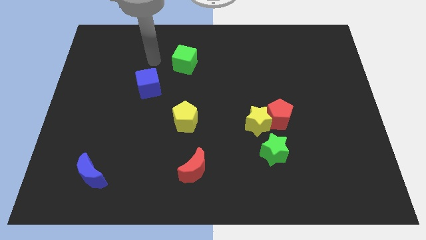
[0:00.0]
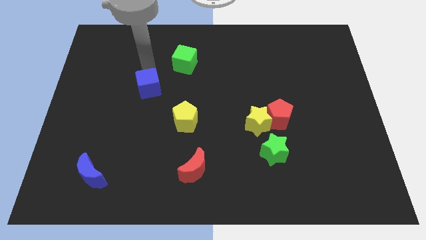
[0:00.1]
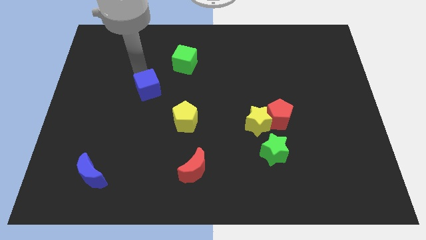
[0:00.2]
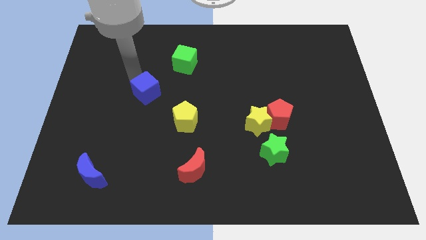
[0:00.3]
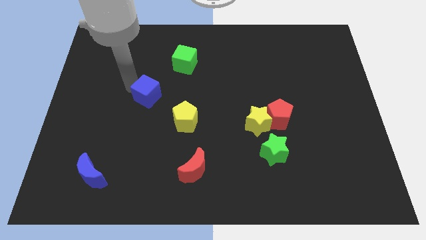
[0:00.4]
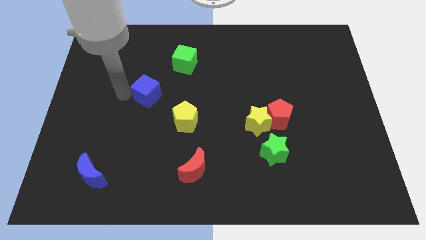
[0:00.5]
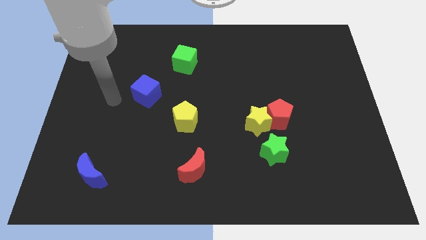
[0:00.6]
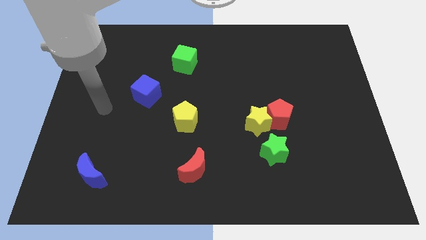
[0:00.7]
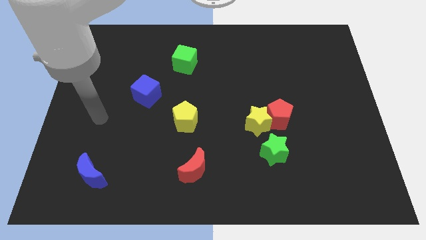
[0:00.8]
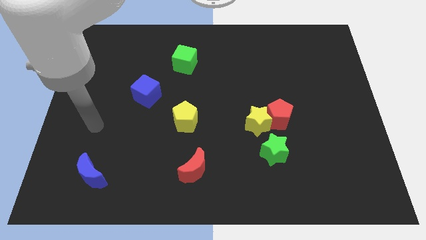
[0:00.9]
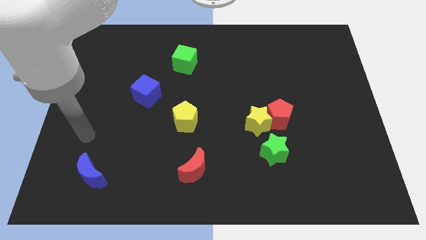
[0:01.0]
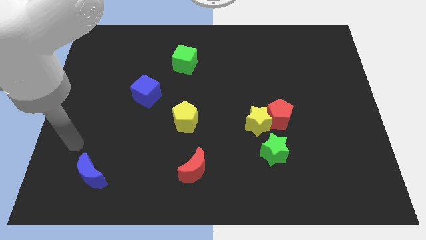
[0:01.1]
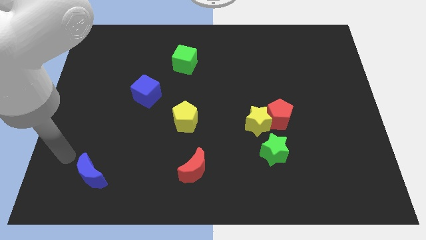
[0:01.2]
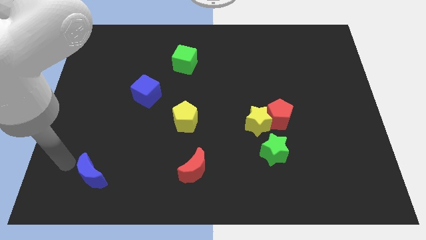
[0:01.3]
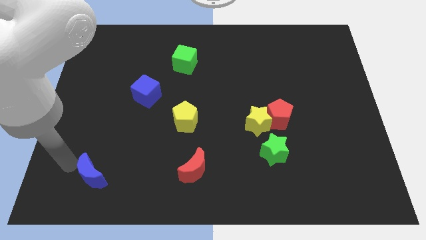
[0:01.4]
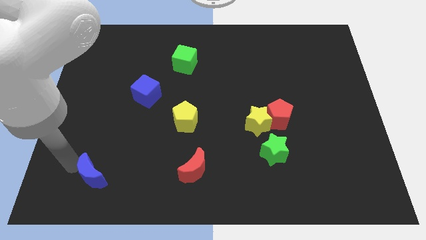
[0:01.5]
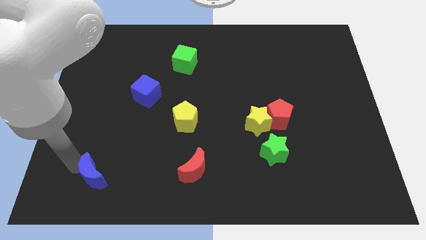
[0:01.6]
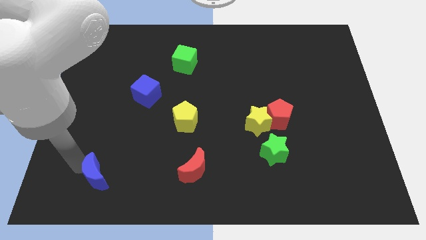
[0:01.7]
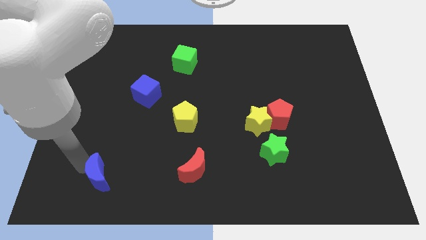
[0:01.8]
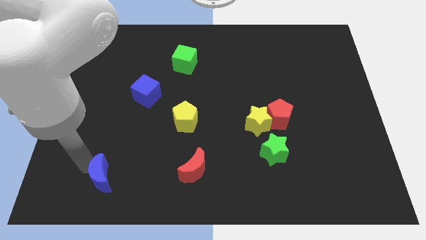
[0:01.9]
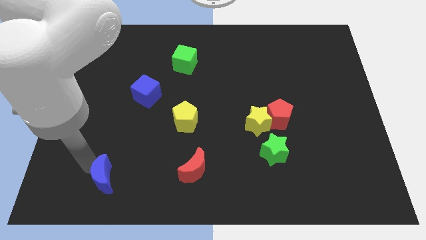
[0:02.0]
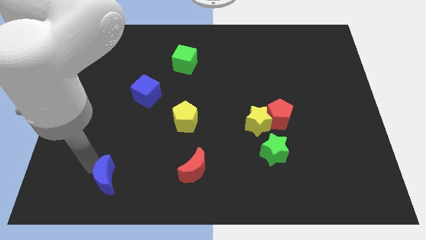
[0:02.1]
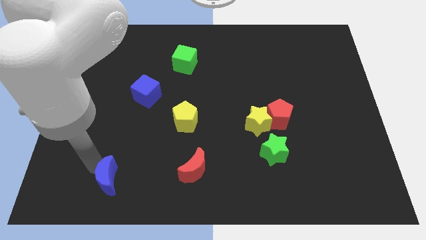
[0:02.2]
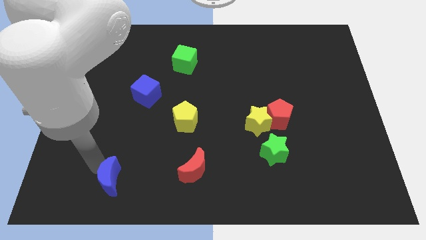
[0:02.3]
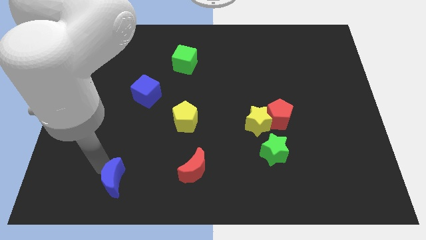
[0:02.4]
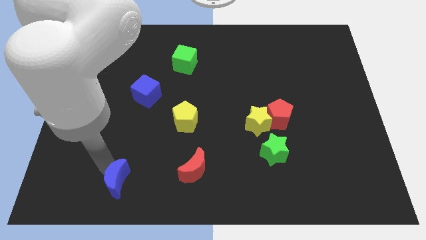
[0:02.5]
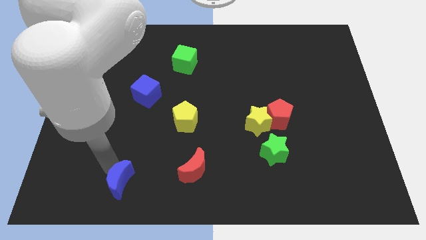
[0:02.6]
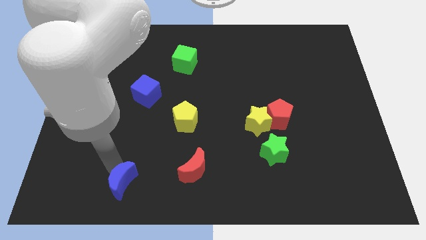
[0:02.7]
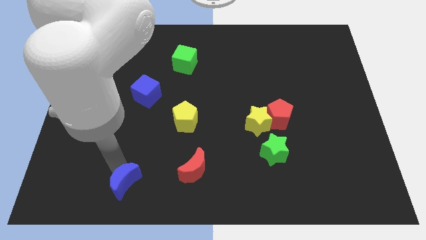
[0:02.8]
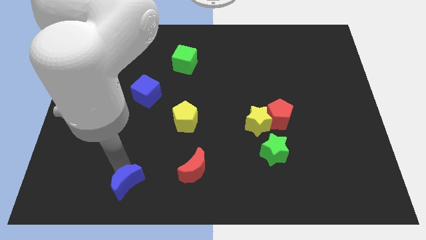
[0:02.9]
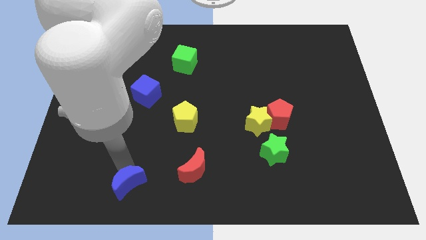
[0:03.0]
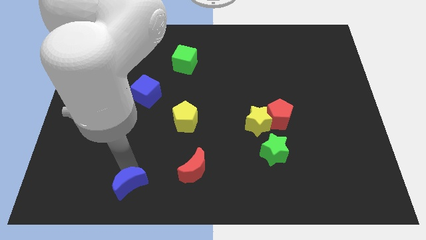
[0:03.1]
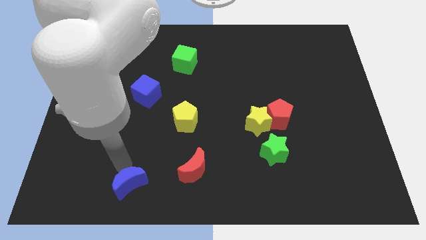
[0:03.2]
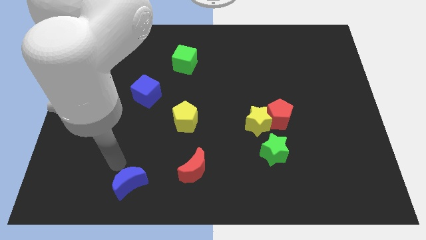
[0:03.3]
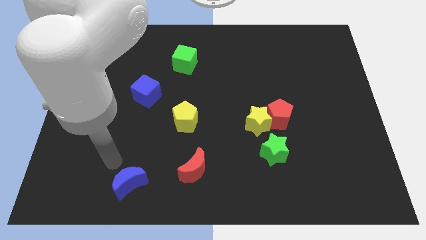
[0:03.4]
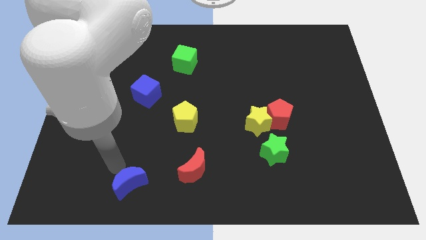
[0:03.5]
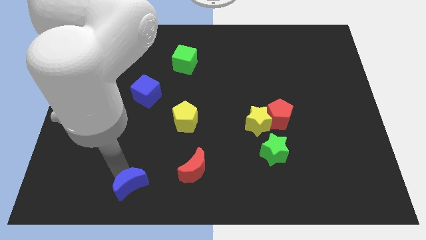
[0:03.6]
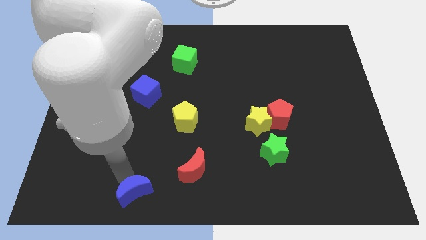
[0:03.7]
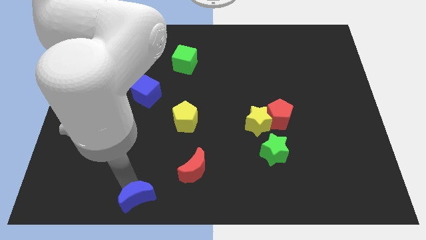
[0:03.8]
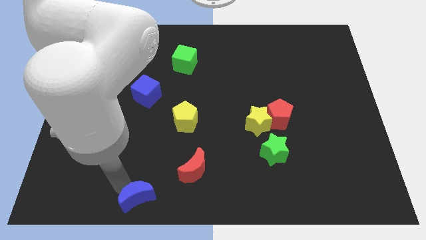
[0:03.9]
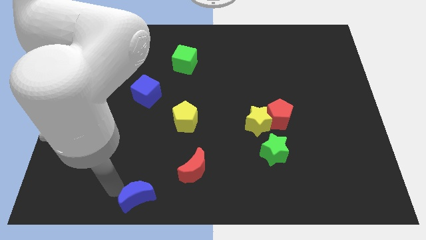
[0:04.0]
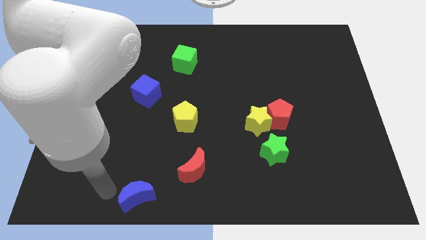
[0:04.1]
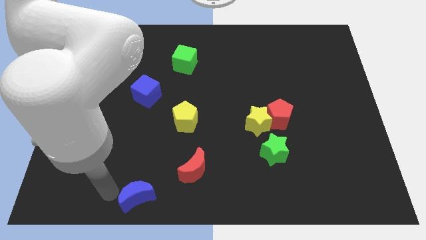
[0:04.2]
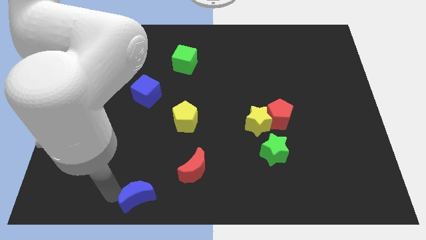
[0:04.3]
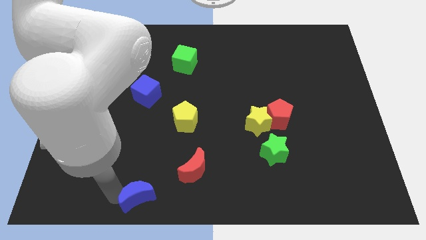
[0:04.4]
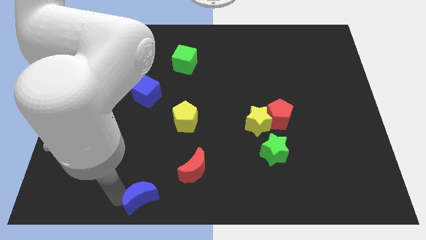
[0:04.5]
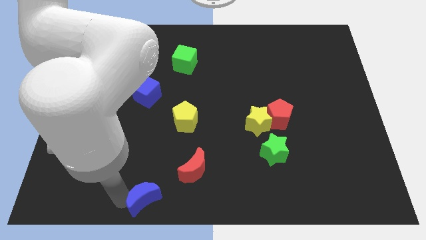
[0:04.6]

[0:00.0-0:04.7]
push the blue moon to the bottom side

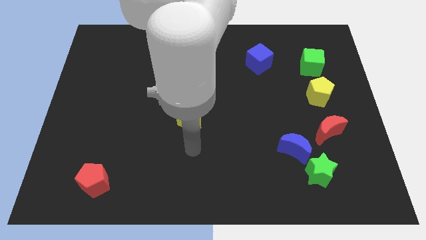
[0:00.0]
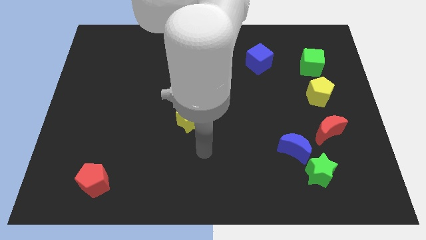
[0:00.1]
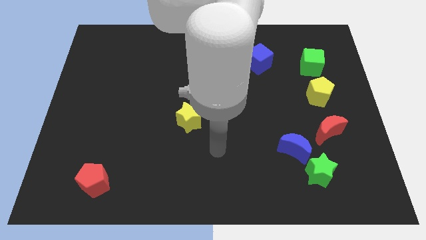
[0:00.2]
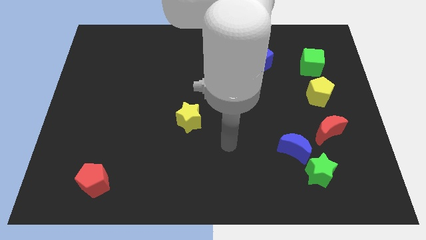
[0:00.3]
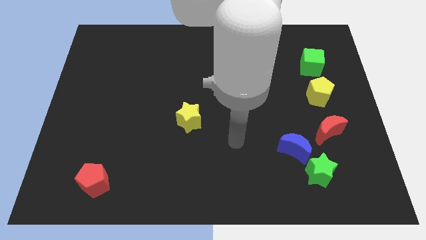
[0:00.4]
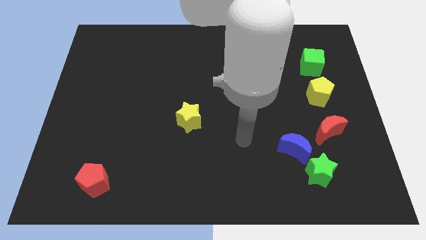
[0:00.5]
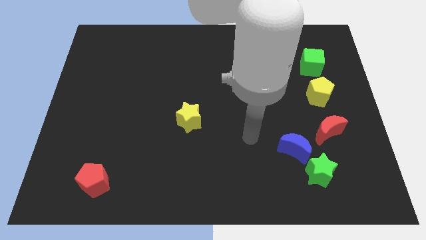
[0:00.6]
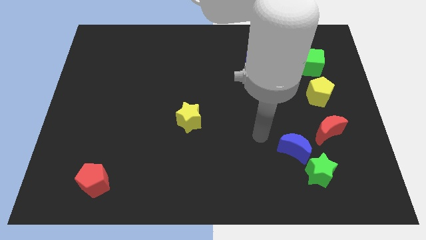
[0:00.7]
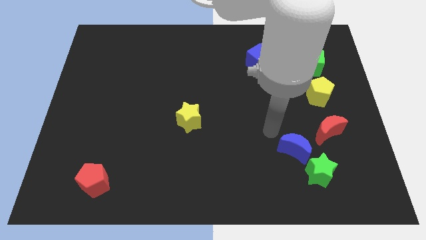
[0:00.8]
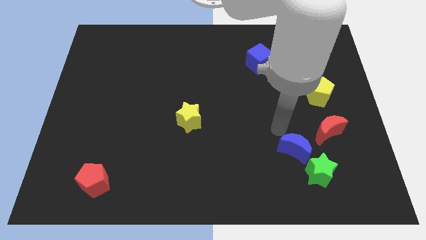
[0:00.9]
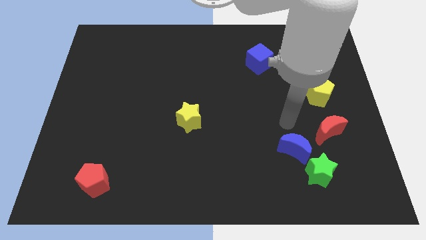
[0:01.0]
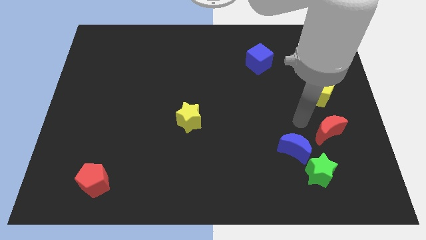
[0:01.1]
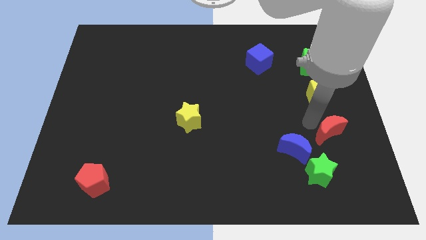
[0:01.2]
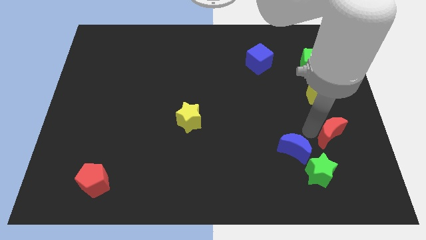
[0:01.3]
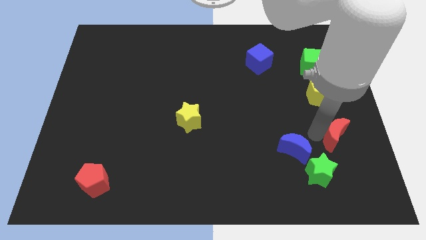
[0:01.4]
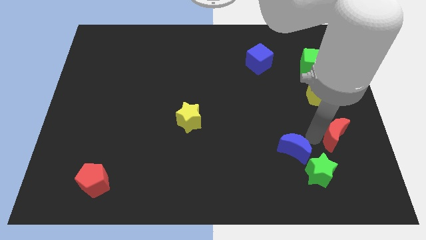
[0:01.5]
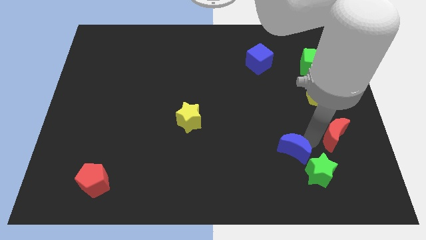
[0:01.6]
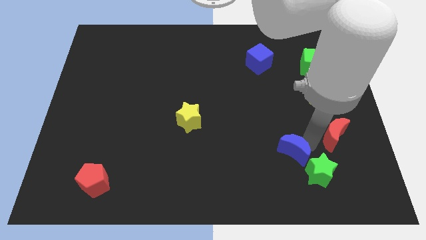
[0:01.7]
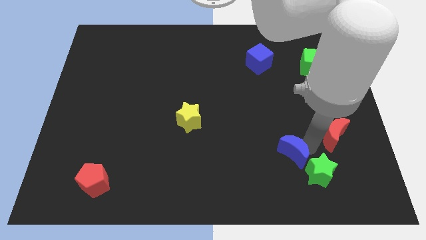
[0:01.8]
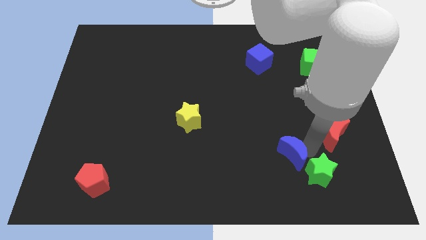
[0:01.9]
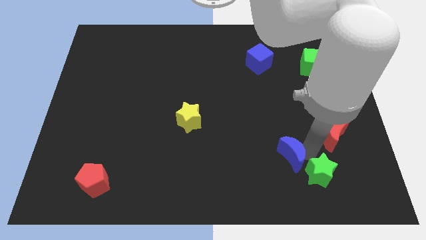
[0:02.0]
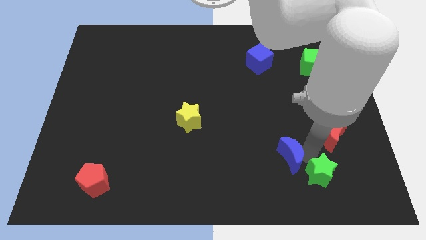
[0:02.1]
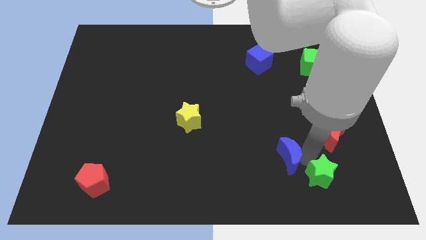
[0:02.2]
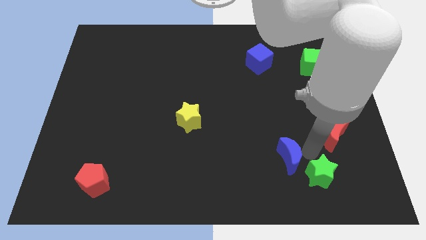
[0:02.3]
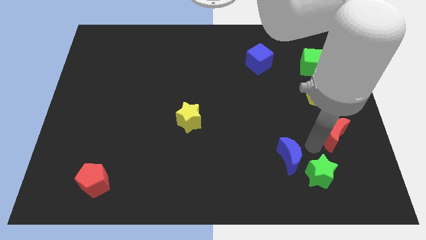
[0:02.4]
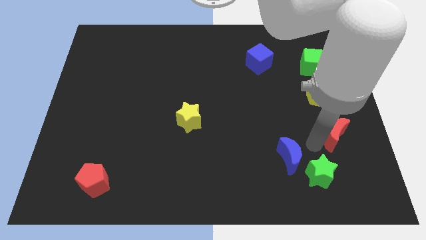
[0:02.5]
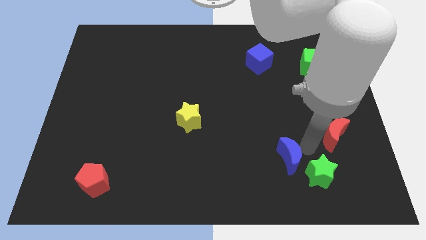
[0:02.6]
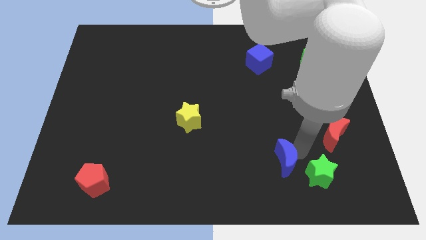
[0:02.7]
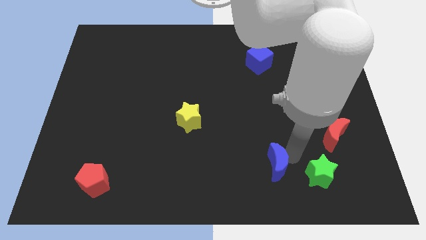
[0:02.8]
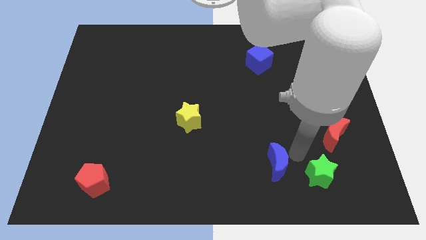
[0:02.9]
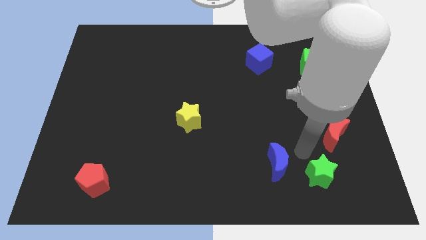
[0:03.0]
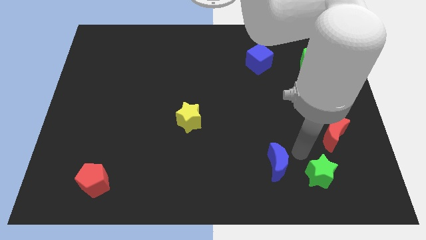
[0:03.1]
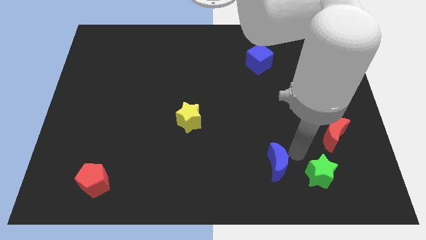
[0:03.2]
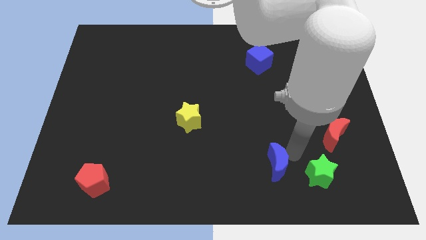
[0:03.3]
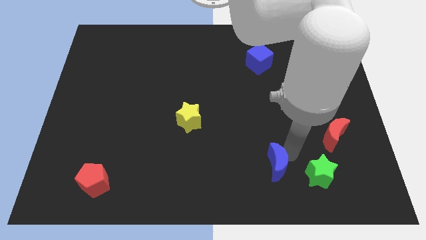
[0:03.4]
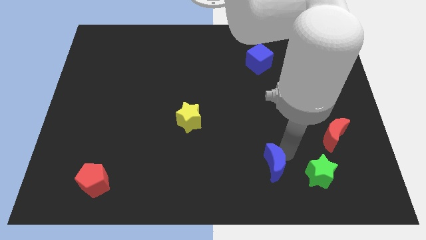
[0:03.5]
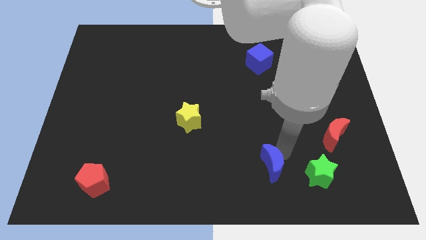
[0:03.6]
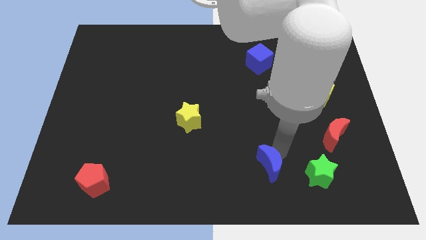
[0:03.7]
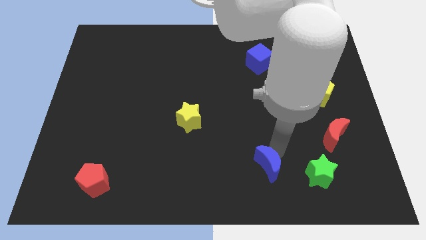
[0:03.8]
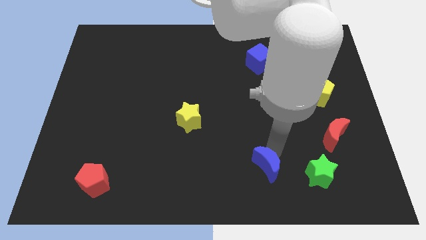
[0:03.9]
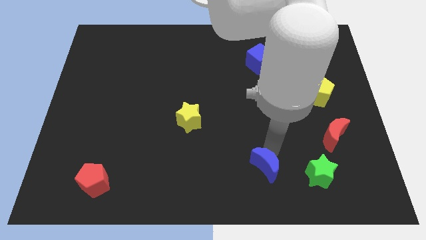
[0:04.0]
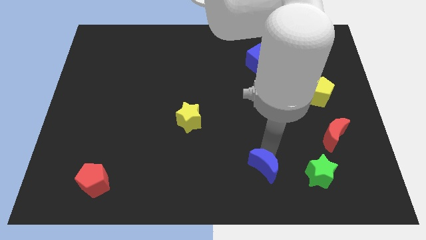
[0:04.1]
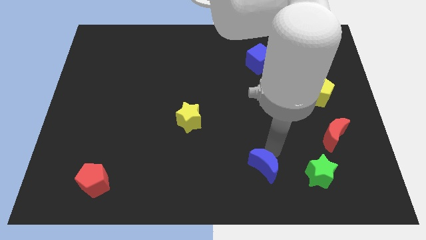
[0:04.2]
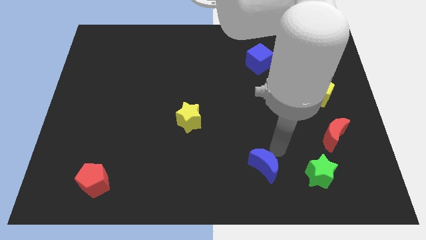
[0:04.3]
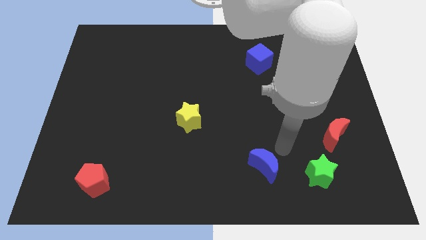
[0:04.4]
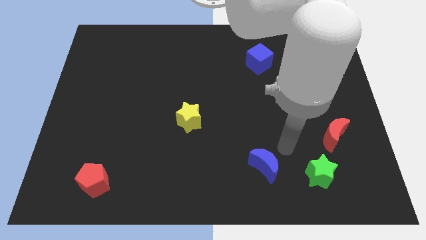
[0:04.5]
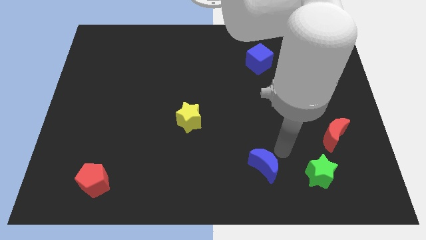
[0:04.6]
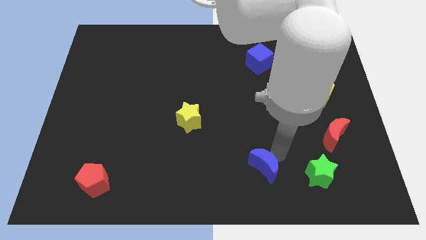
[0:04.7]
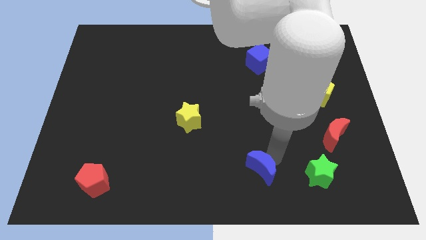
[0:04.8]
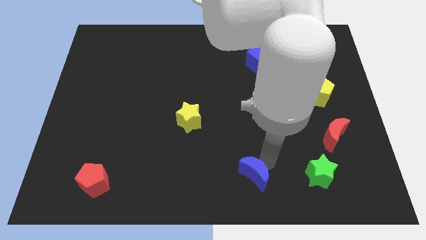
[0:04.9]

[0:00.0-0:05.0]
move the blue moon to the bottom side
